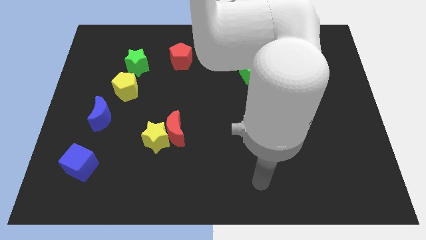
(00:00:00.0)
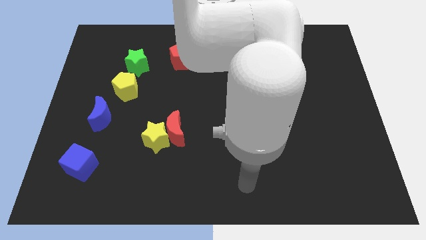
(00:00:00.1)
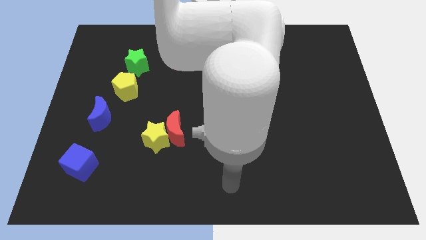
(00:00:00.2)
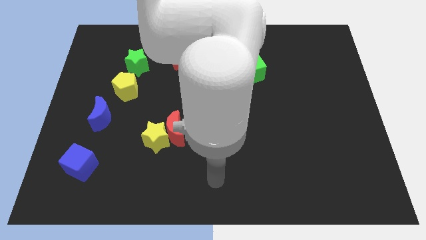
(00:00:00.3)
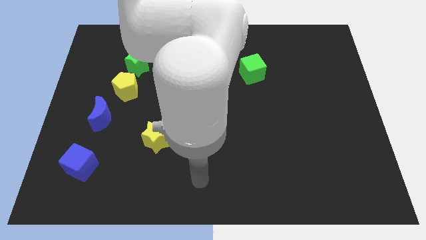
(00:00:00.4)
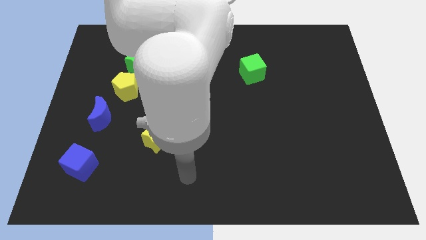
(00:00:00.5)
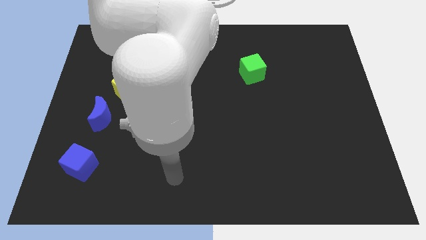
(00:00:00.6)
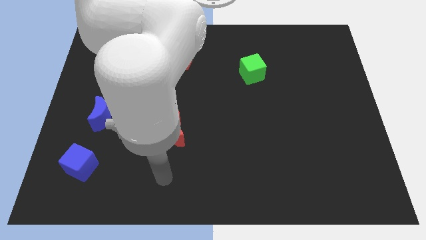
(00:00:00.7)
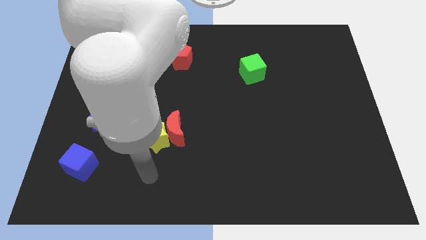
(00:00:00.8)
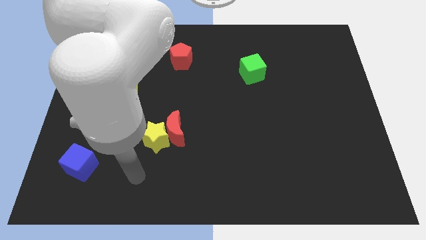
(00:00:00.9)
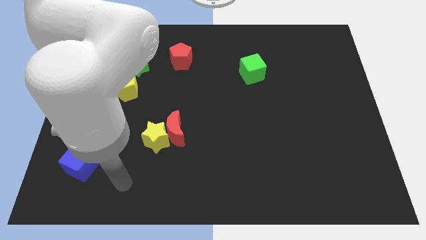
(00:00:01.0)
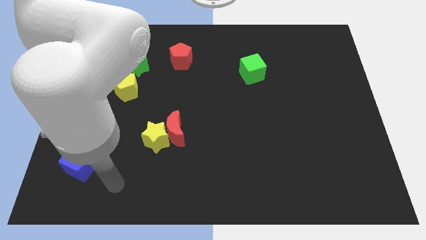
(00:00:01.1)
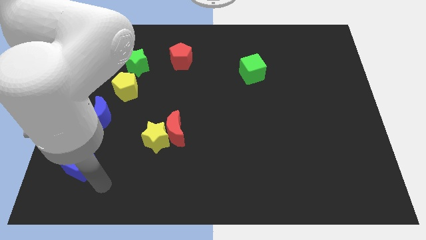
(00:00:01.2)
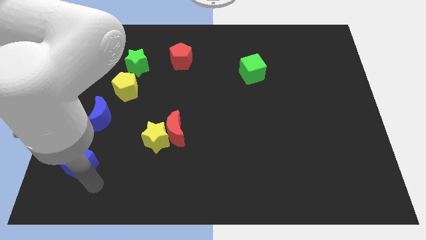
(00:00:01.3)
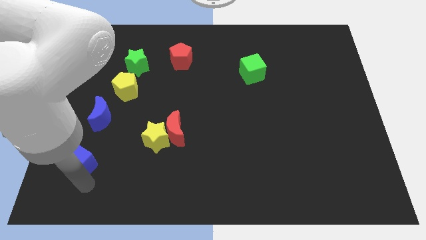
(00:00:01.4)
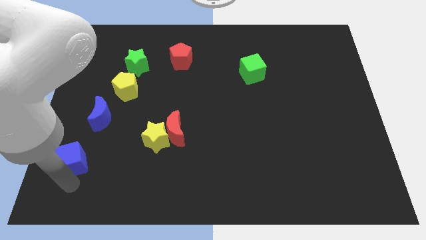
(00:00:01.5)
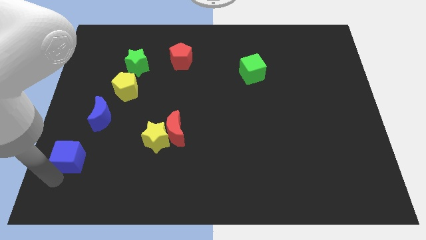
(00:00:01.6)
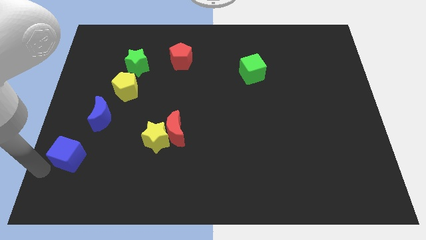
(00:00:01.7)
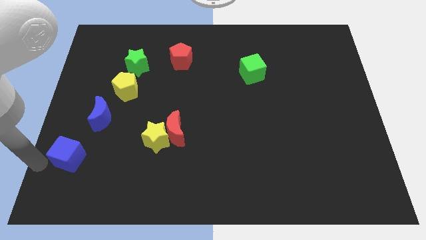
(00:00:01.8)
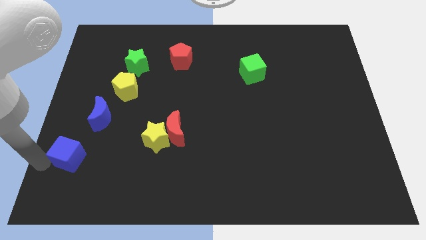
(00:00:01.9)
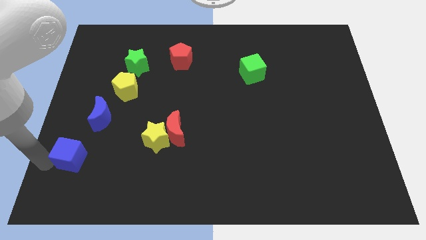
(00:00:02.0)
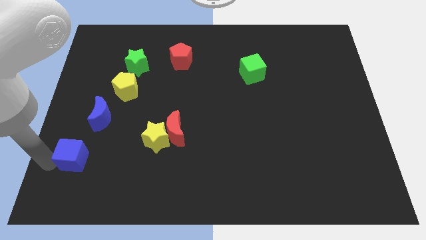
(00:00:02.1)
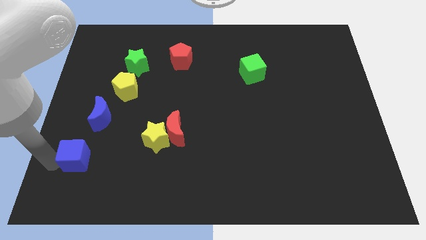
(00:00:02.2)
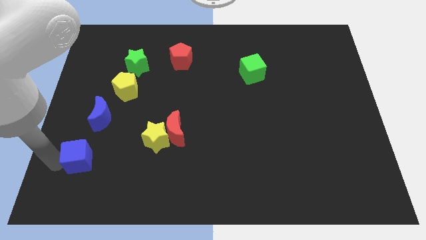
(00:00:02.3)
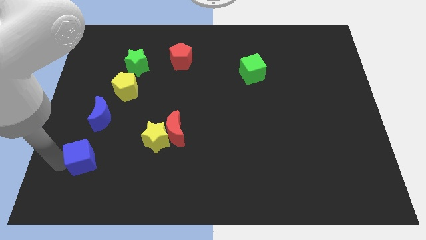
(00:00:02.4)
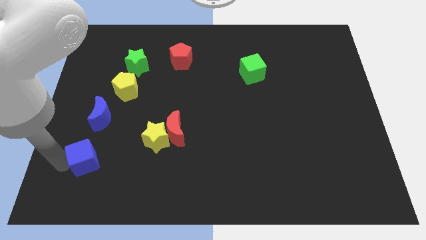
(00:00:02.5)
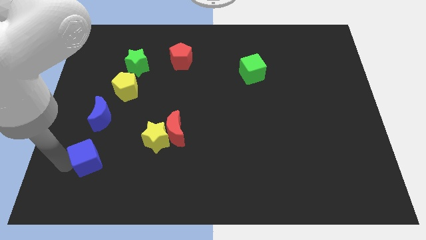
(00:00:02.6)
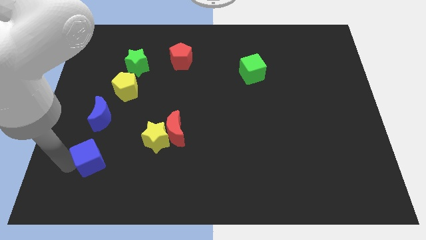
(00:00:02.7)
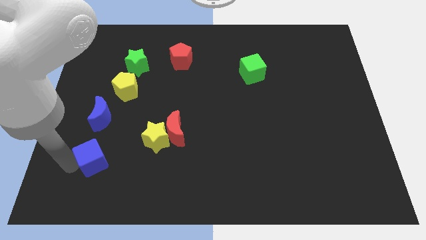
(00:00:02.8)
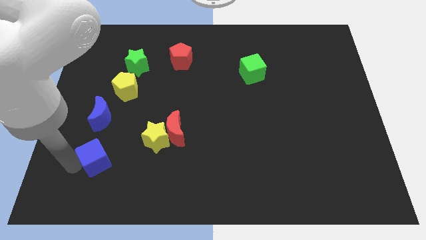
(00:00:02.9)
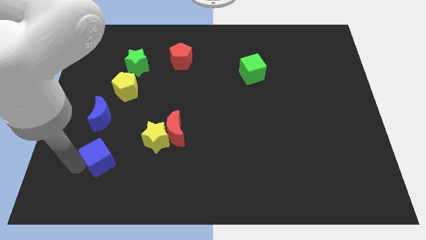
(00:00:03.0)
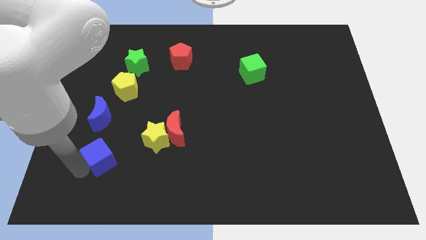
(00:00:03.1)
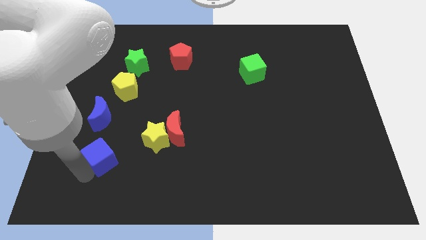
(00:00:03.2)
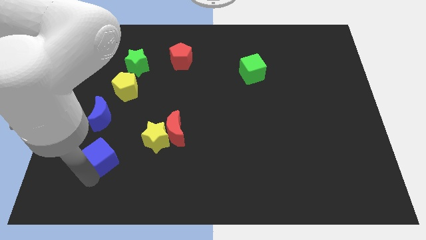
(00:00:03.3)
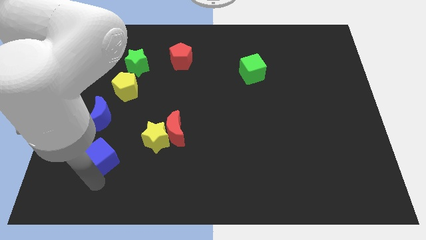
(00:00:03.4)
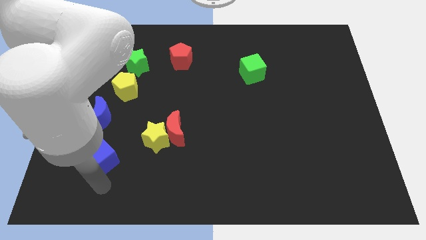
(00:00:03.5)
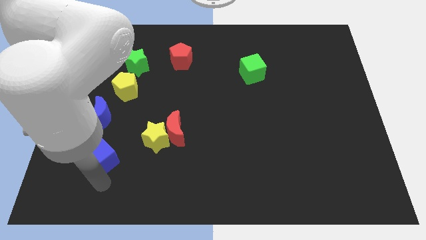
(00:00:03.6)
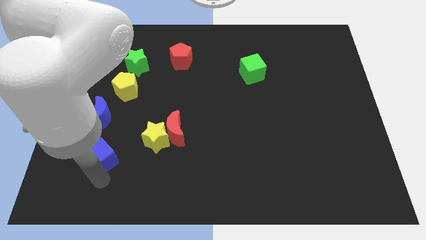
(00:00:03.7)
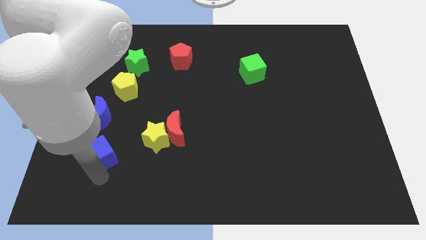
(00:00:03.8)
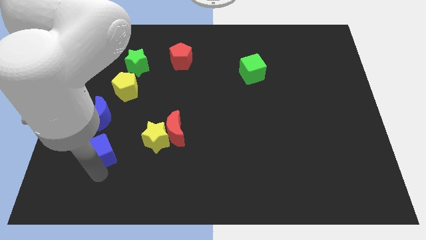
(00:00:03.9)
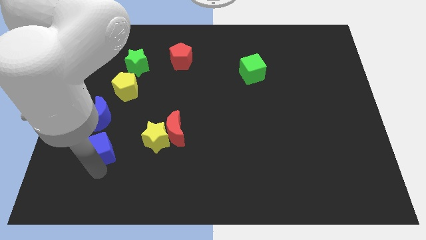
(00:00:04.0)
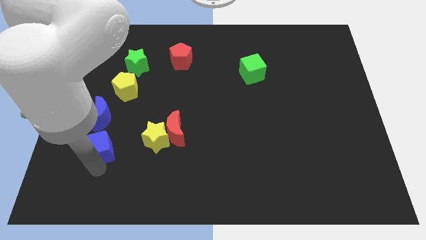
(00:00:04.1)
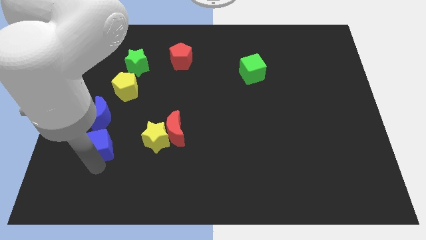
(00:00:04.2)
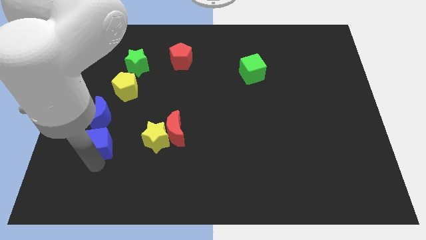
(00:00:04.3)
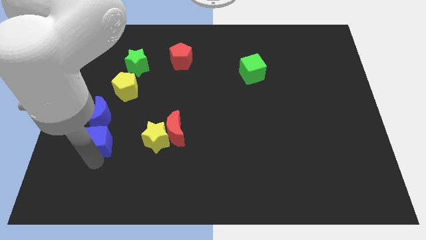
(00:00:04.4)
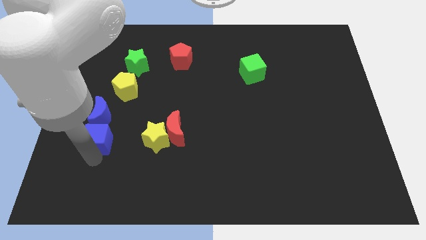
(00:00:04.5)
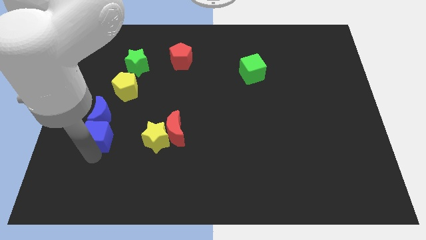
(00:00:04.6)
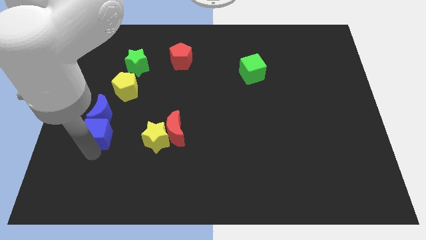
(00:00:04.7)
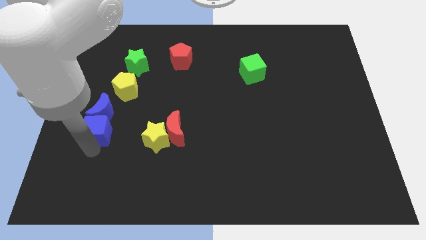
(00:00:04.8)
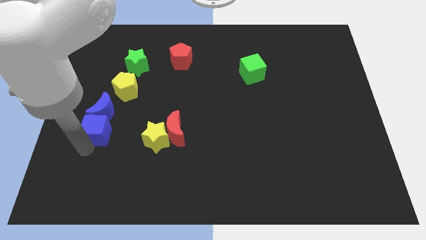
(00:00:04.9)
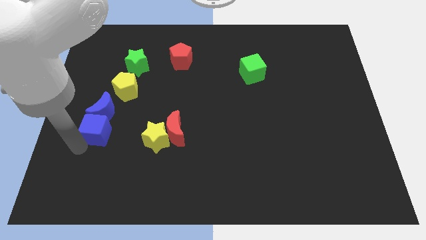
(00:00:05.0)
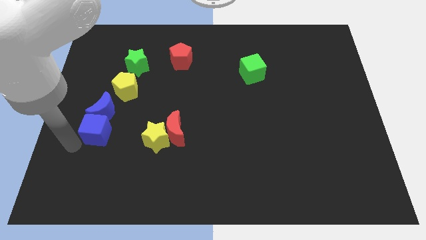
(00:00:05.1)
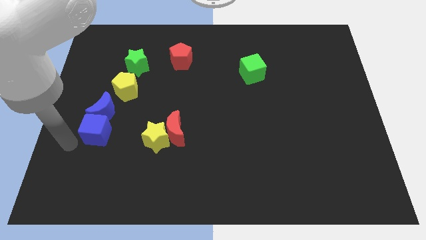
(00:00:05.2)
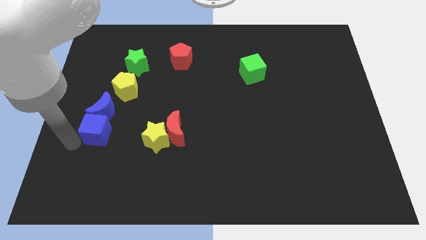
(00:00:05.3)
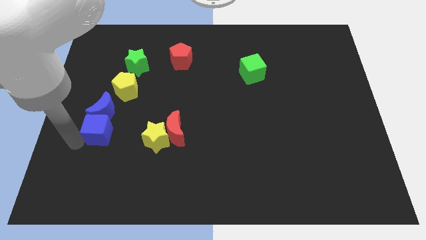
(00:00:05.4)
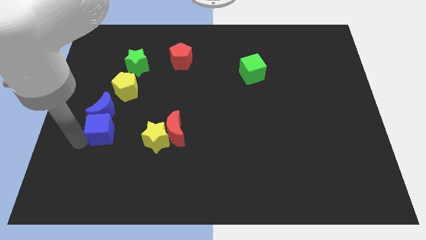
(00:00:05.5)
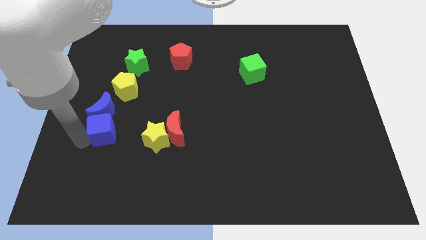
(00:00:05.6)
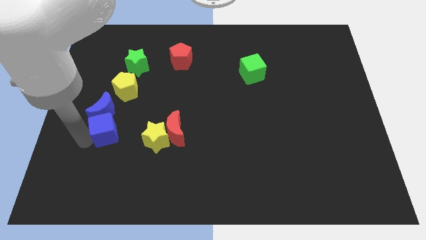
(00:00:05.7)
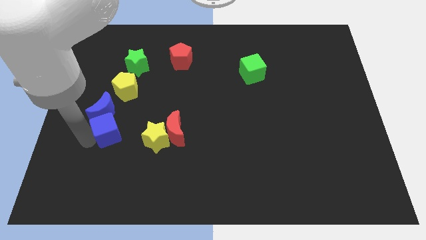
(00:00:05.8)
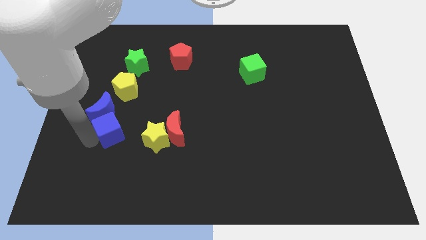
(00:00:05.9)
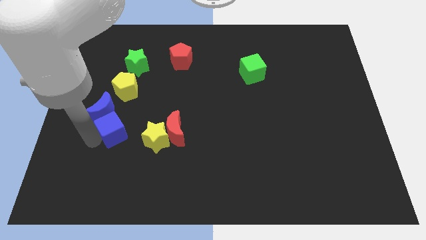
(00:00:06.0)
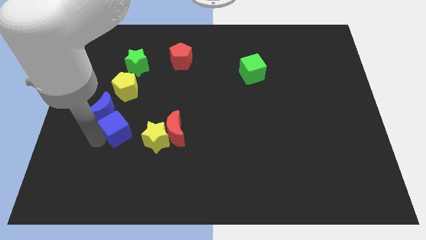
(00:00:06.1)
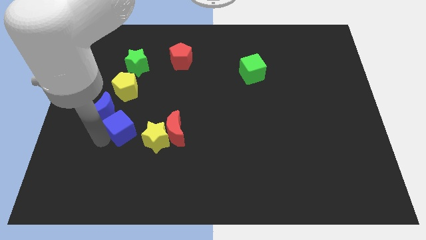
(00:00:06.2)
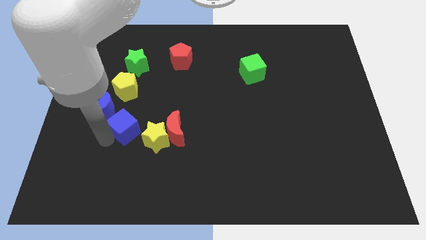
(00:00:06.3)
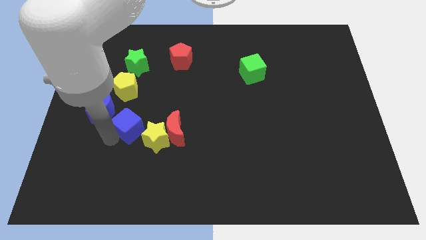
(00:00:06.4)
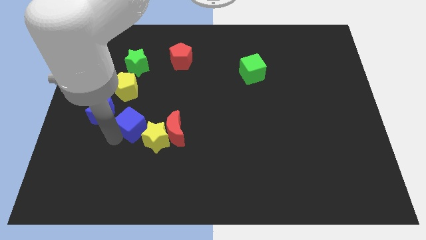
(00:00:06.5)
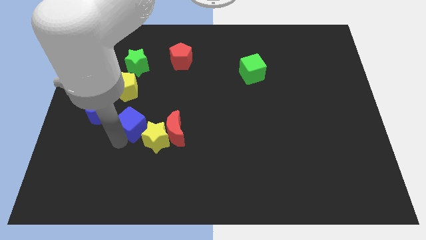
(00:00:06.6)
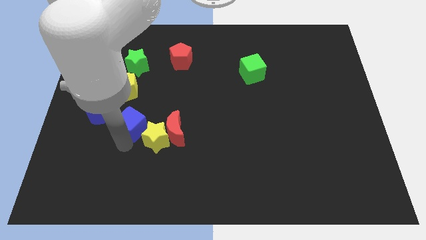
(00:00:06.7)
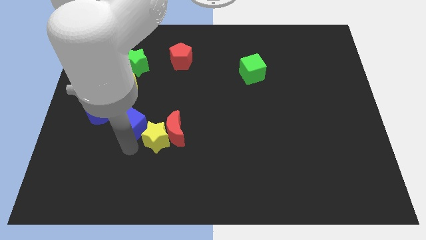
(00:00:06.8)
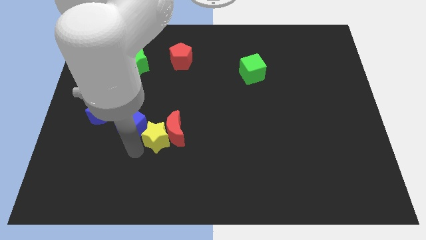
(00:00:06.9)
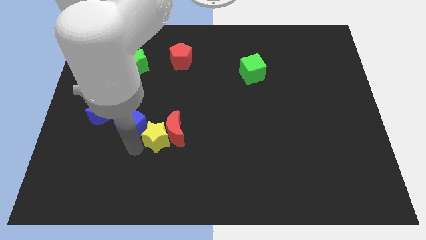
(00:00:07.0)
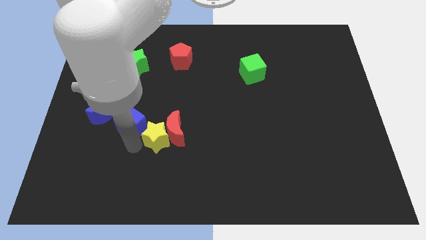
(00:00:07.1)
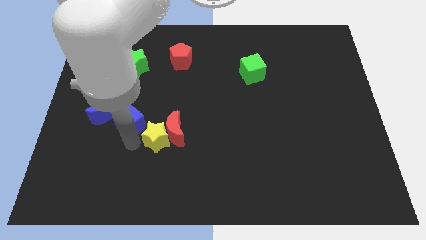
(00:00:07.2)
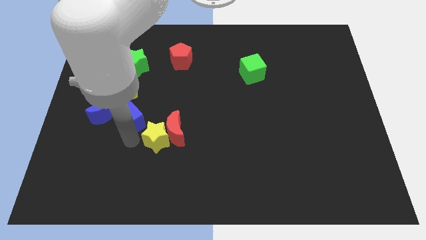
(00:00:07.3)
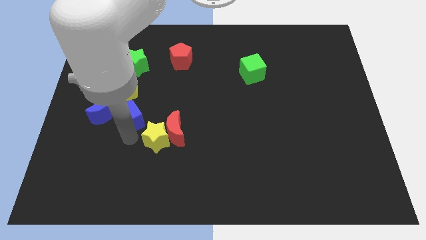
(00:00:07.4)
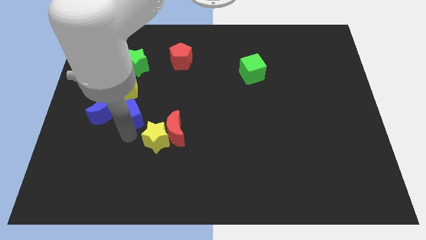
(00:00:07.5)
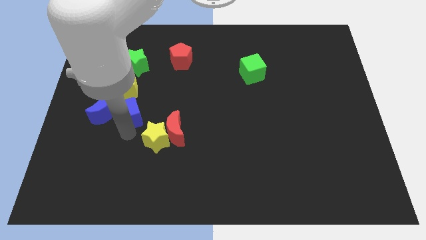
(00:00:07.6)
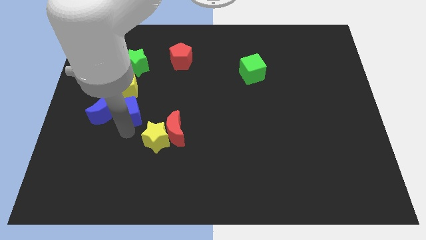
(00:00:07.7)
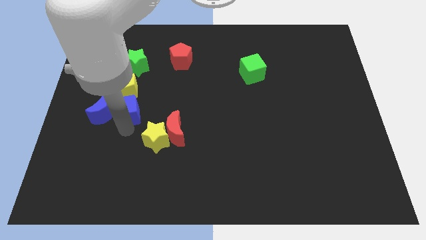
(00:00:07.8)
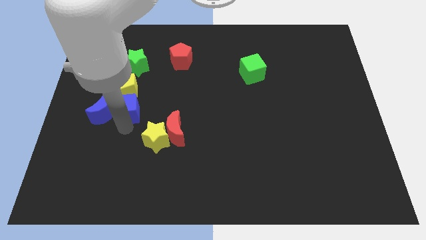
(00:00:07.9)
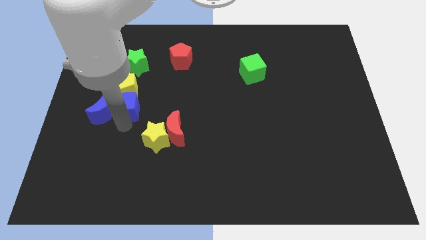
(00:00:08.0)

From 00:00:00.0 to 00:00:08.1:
slide the blue cube next to the yellow pentagon
